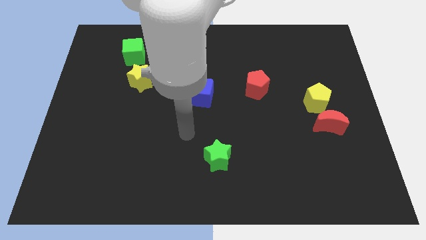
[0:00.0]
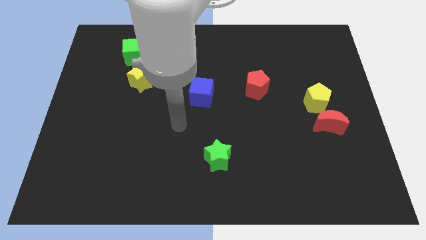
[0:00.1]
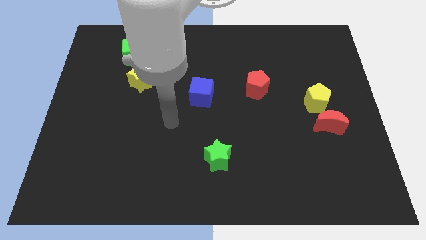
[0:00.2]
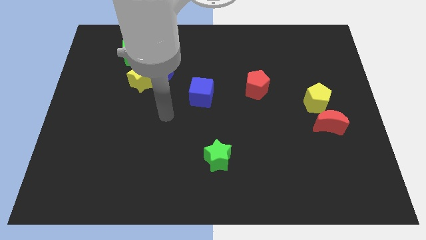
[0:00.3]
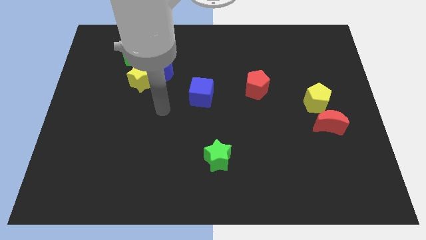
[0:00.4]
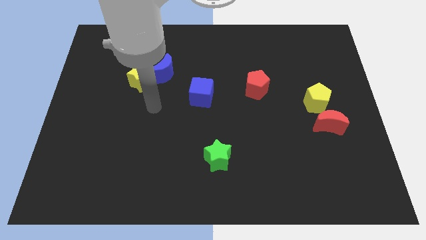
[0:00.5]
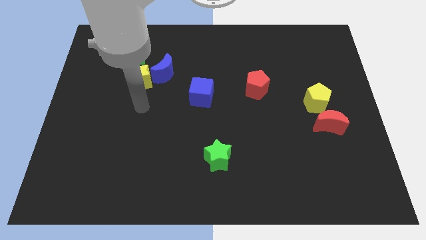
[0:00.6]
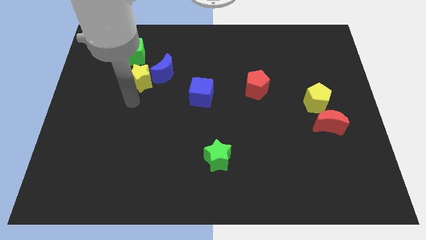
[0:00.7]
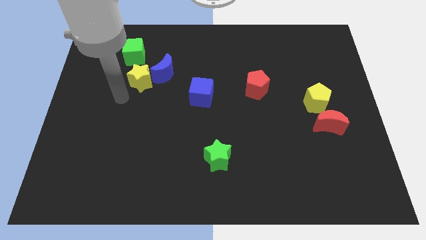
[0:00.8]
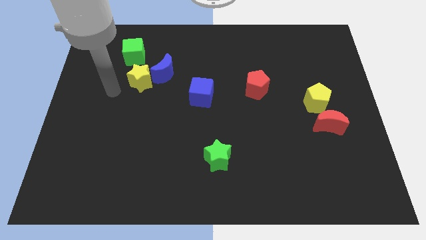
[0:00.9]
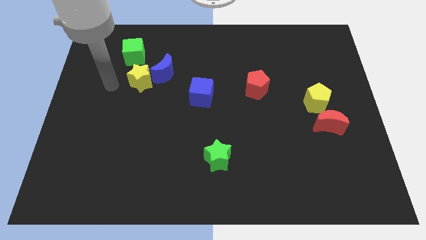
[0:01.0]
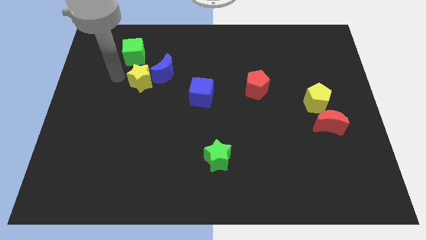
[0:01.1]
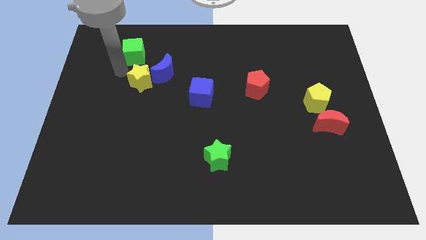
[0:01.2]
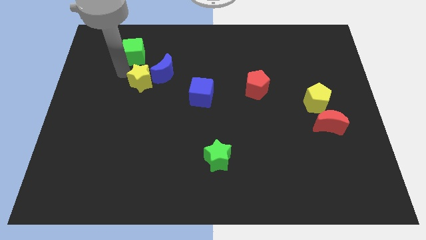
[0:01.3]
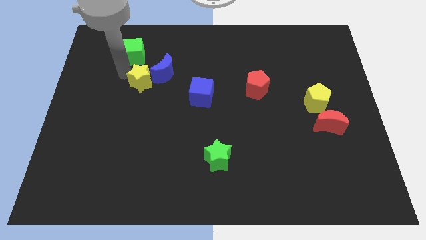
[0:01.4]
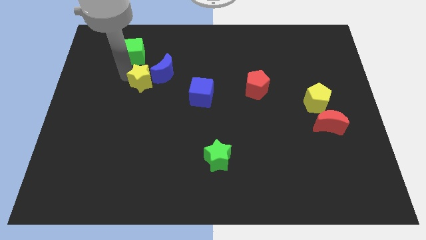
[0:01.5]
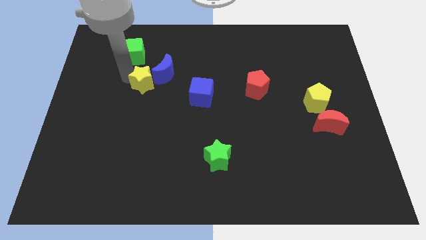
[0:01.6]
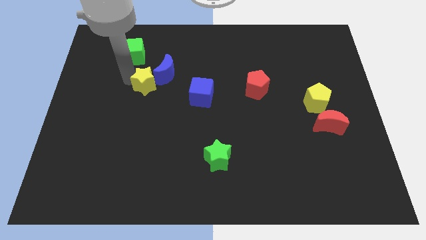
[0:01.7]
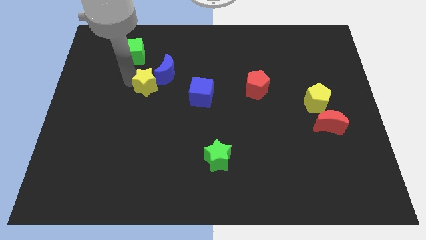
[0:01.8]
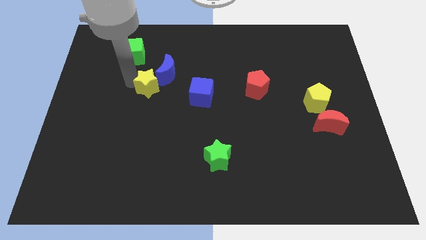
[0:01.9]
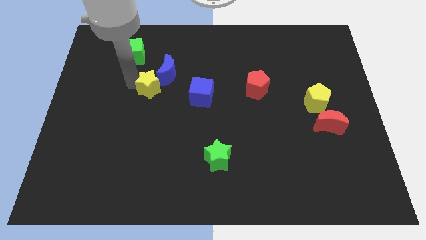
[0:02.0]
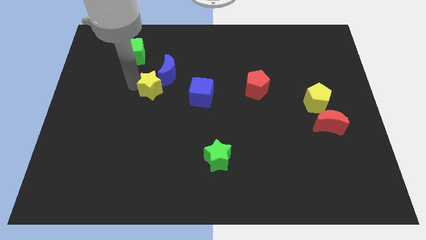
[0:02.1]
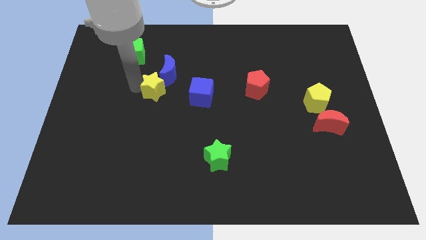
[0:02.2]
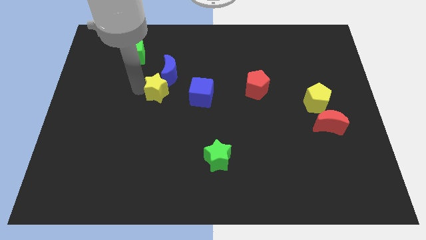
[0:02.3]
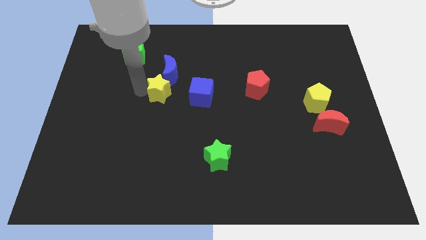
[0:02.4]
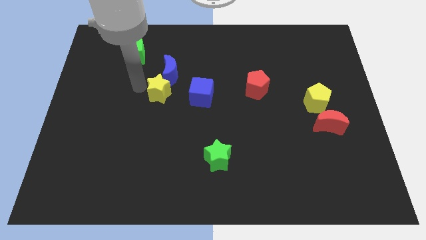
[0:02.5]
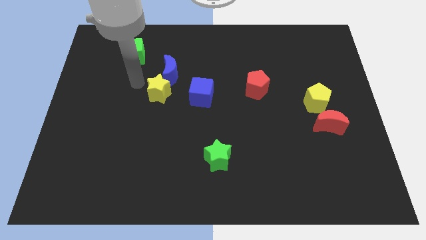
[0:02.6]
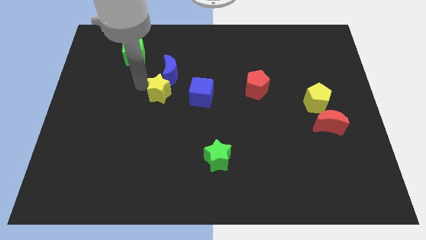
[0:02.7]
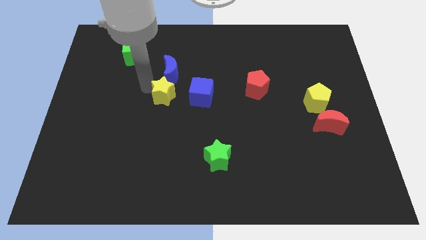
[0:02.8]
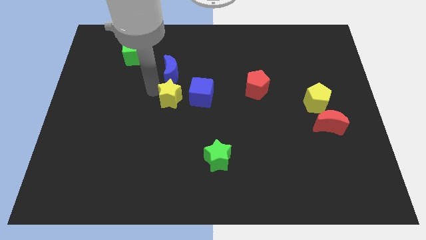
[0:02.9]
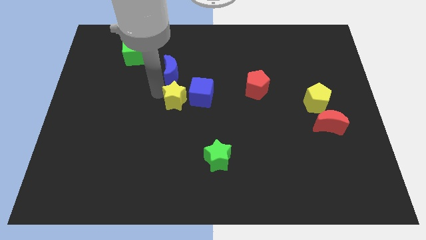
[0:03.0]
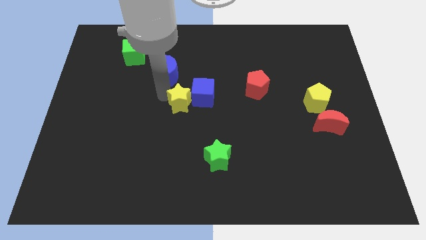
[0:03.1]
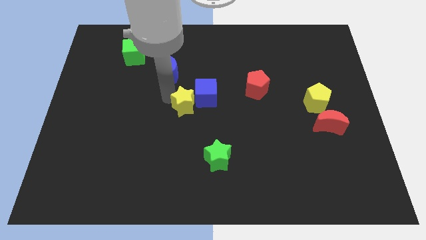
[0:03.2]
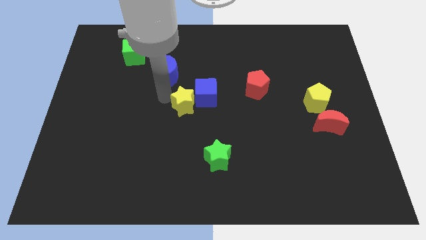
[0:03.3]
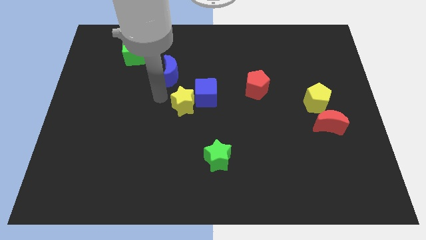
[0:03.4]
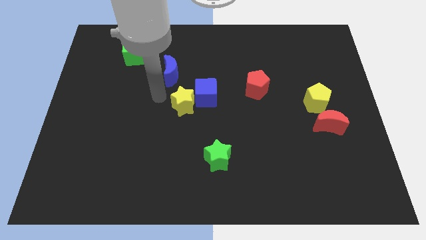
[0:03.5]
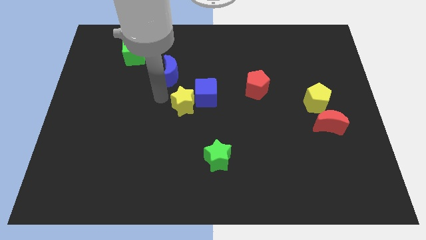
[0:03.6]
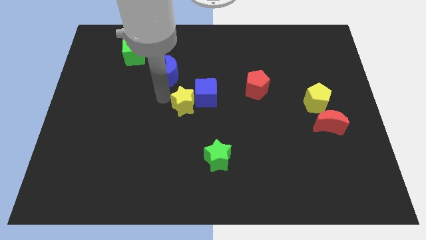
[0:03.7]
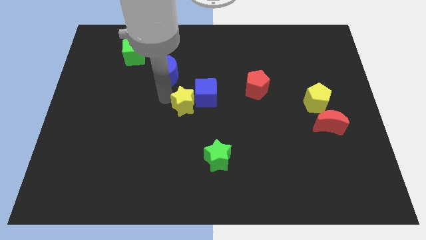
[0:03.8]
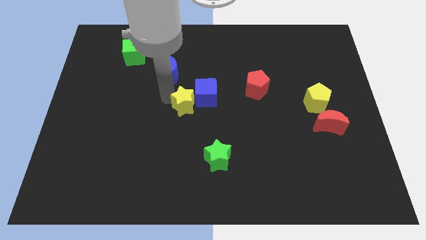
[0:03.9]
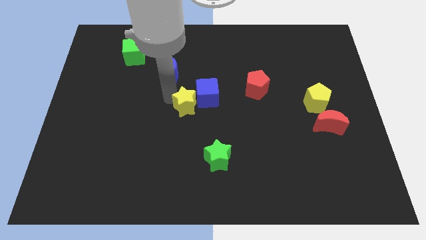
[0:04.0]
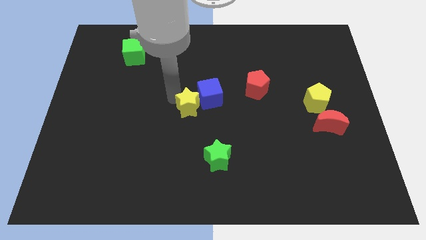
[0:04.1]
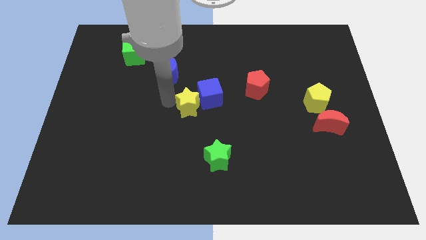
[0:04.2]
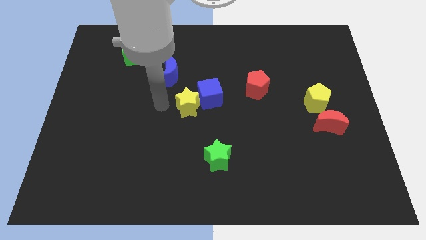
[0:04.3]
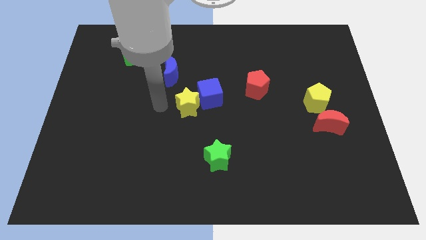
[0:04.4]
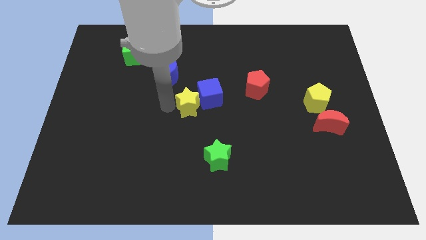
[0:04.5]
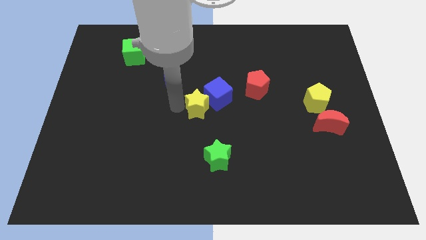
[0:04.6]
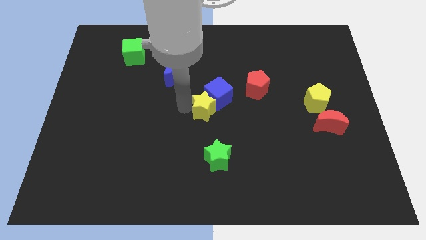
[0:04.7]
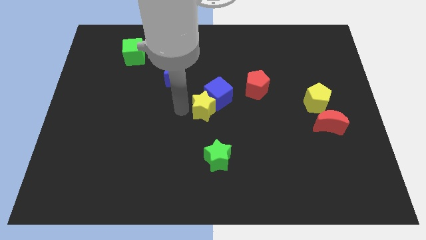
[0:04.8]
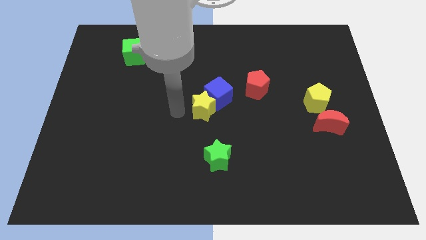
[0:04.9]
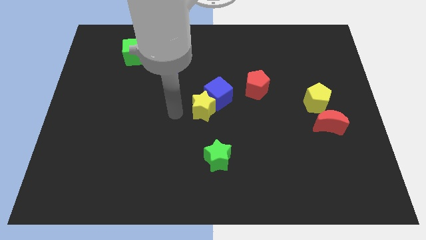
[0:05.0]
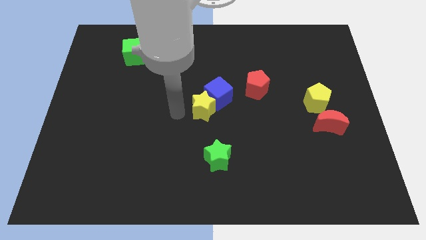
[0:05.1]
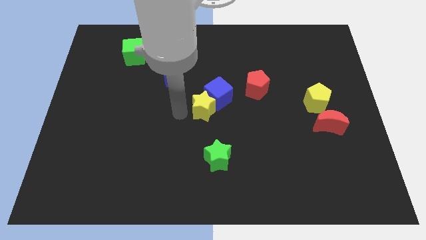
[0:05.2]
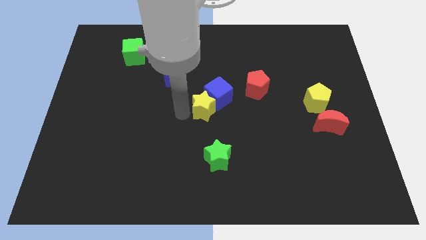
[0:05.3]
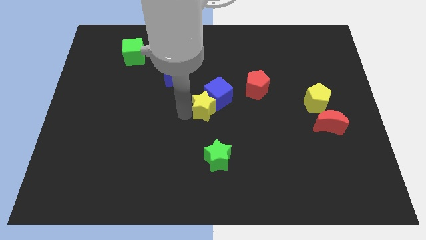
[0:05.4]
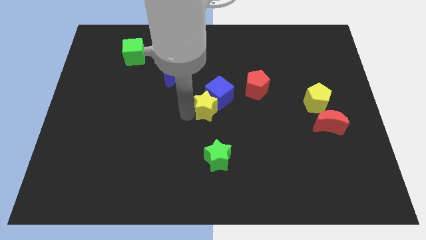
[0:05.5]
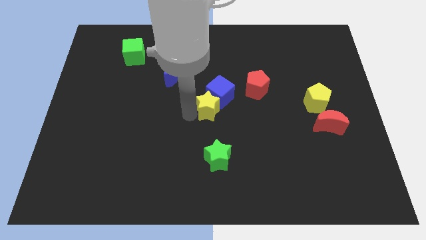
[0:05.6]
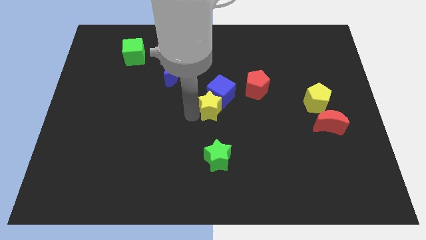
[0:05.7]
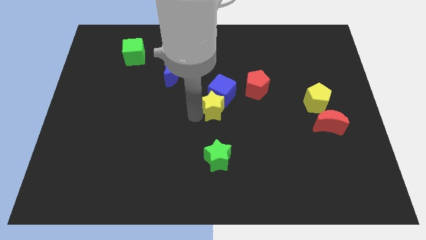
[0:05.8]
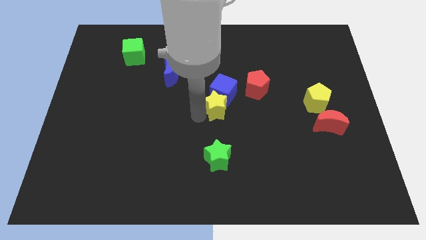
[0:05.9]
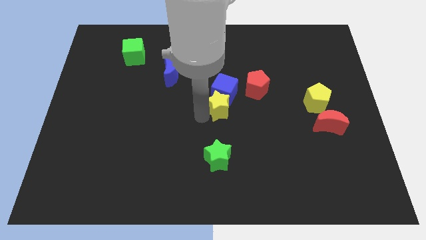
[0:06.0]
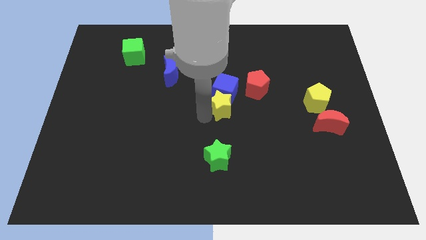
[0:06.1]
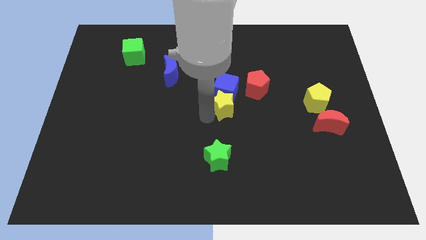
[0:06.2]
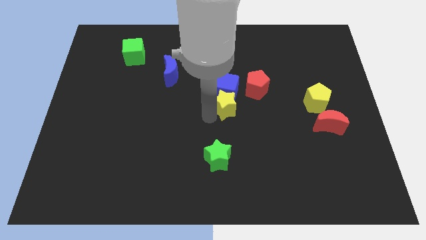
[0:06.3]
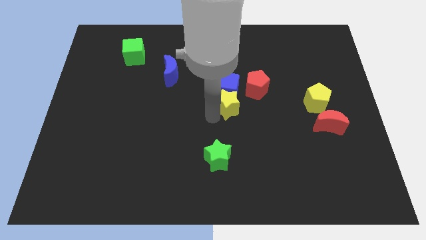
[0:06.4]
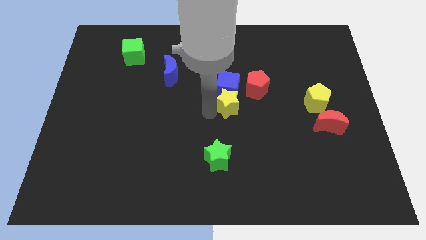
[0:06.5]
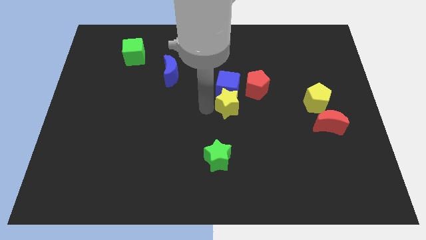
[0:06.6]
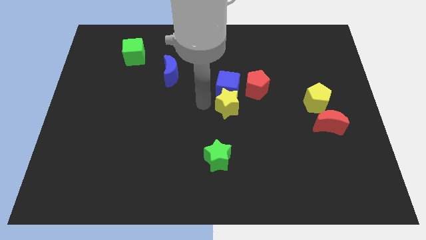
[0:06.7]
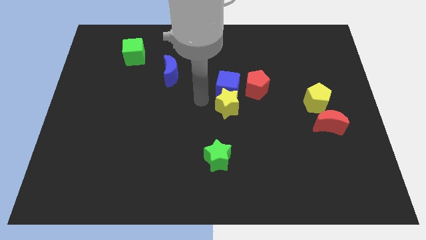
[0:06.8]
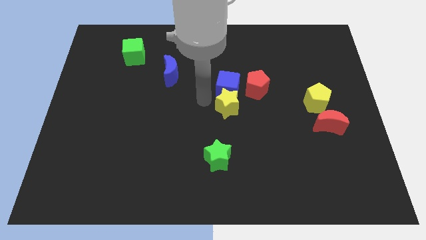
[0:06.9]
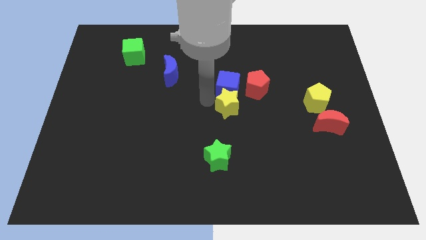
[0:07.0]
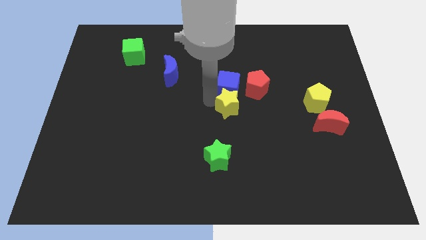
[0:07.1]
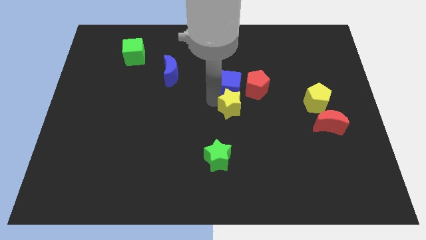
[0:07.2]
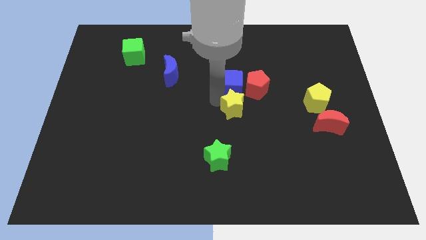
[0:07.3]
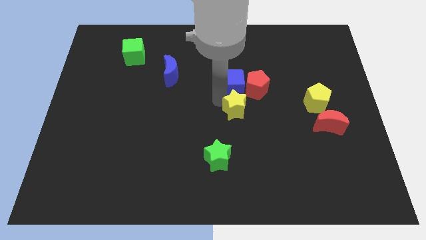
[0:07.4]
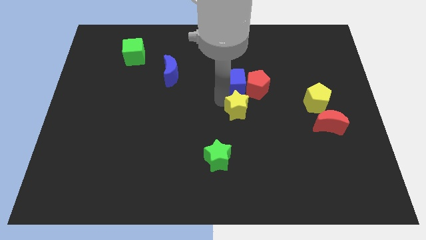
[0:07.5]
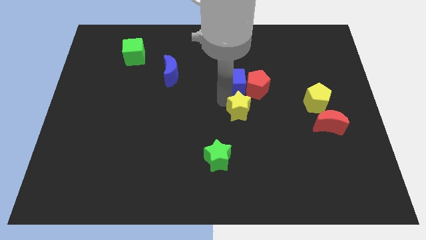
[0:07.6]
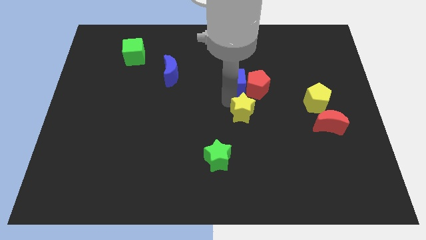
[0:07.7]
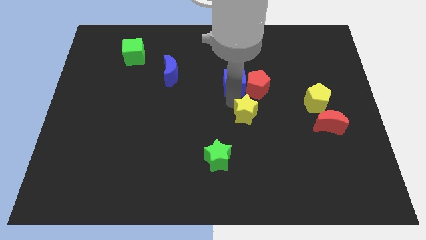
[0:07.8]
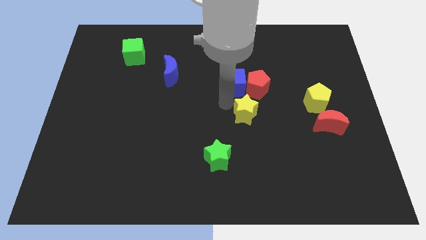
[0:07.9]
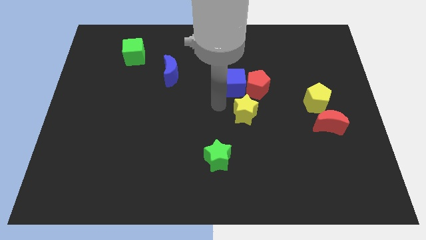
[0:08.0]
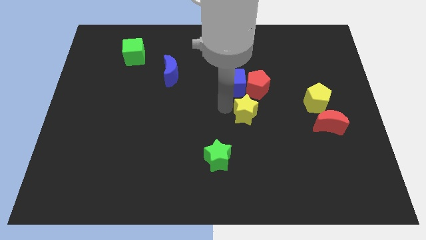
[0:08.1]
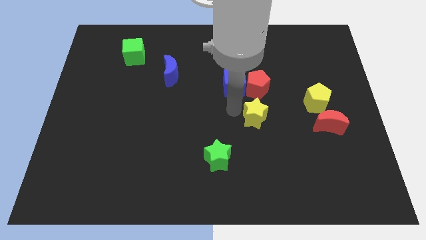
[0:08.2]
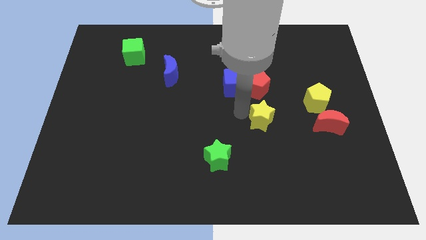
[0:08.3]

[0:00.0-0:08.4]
push the yellow star just left of the red moon

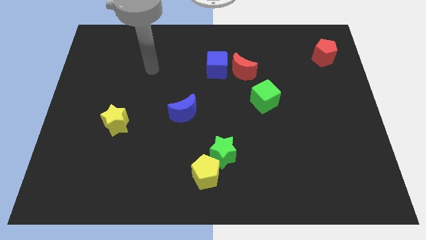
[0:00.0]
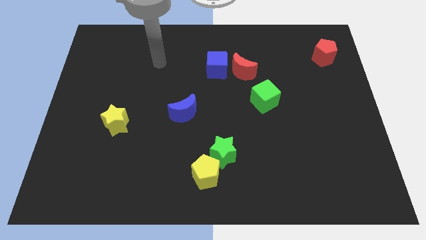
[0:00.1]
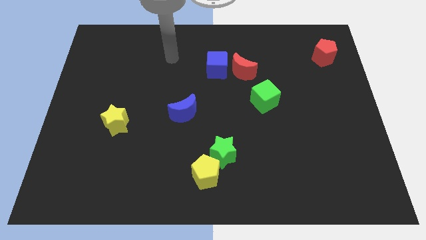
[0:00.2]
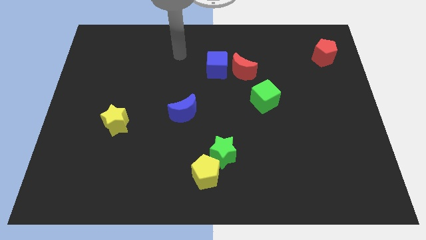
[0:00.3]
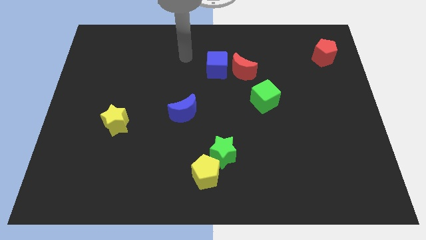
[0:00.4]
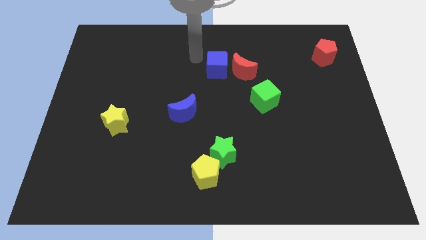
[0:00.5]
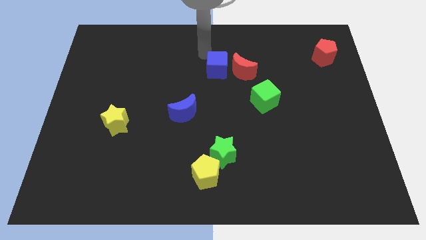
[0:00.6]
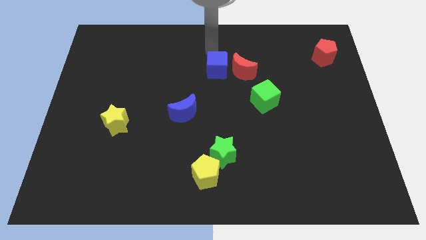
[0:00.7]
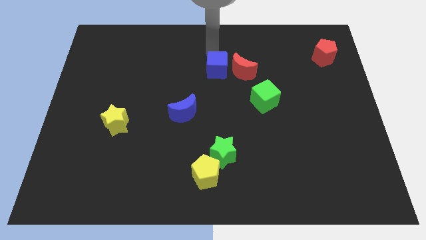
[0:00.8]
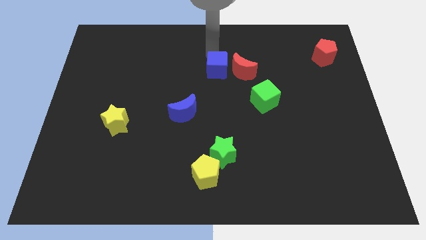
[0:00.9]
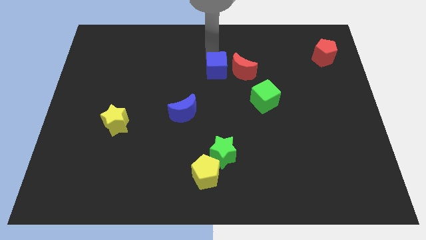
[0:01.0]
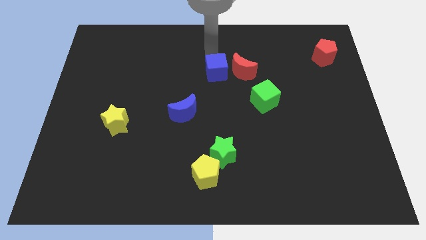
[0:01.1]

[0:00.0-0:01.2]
slide the blue cube to the bottom left side of the red moon
